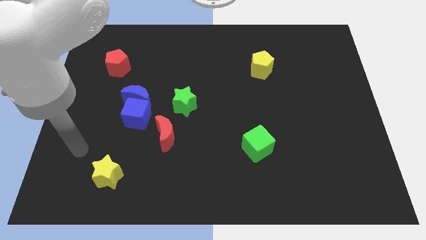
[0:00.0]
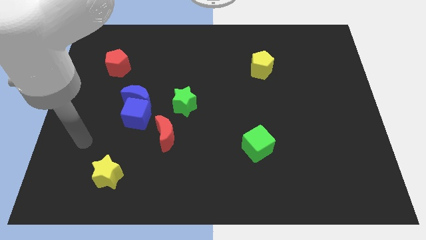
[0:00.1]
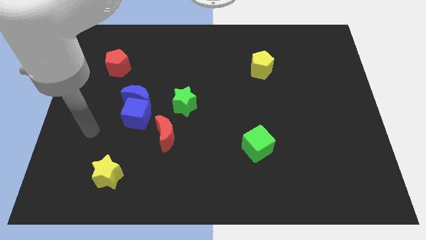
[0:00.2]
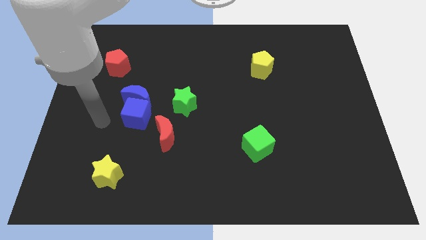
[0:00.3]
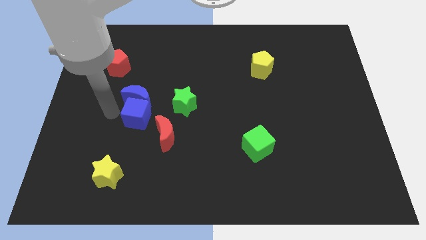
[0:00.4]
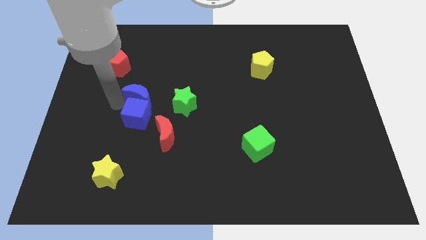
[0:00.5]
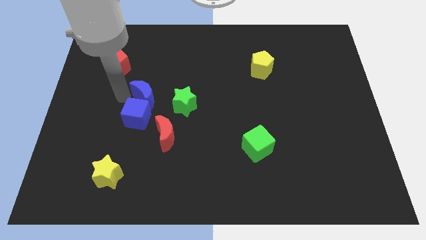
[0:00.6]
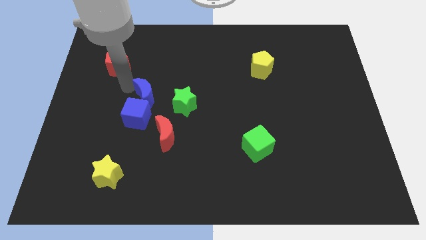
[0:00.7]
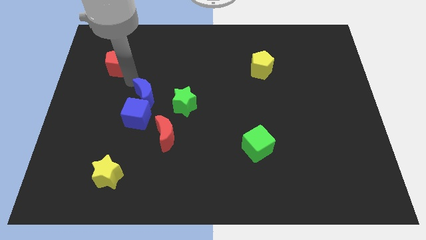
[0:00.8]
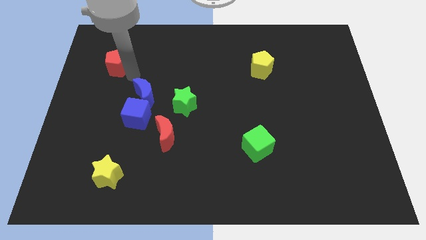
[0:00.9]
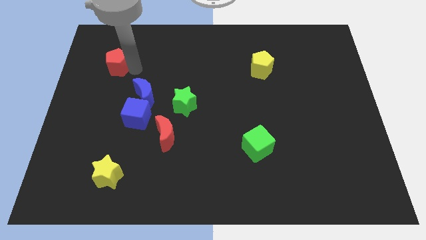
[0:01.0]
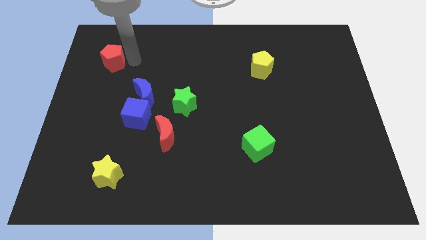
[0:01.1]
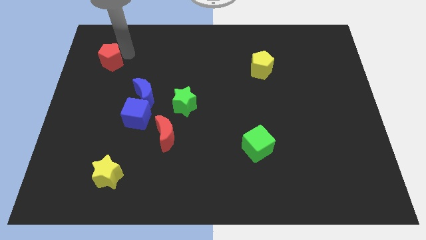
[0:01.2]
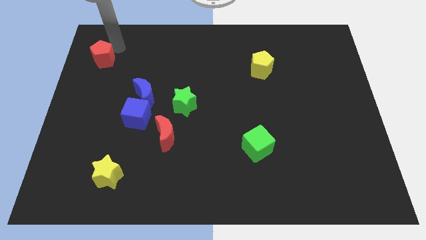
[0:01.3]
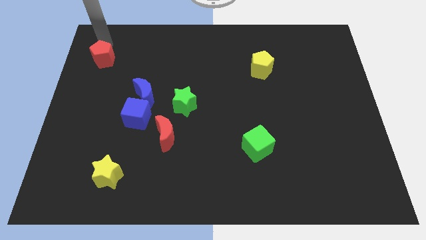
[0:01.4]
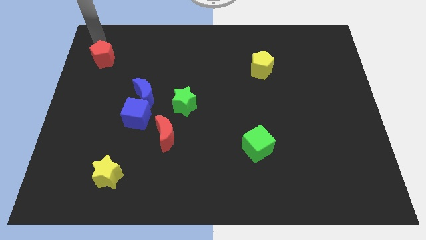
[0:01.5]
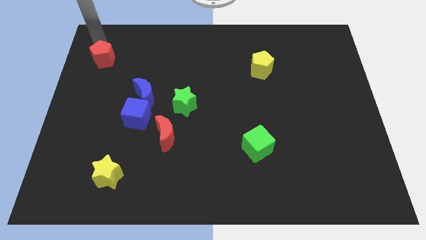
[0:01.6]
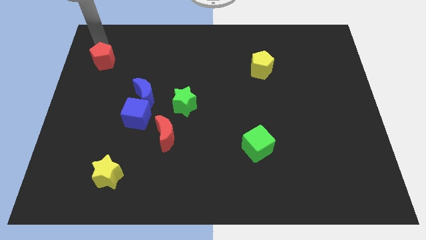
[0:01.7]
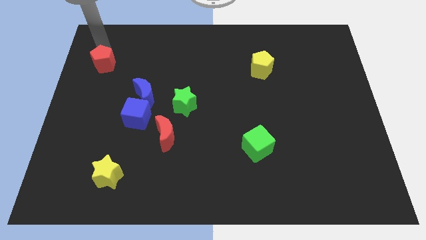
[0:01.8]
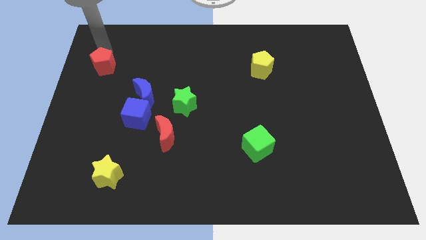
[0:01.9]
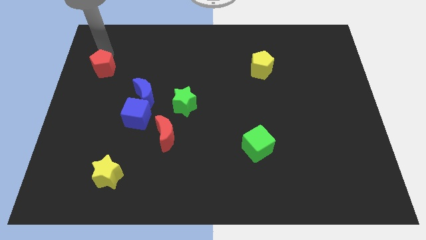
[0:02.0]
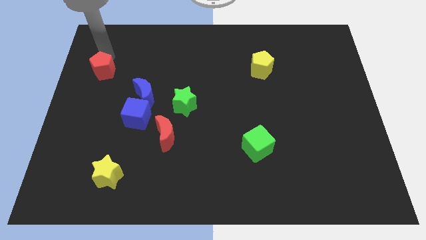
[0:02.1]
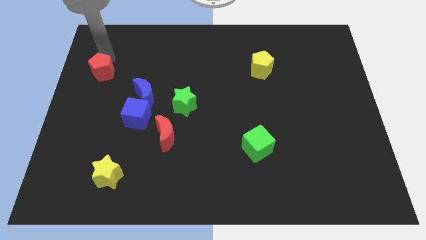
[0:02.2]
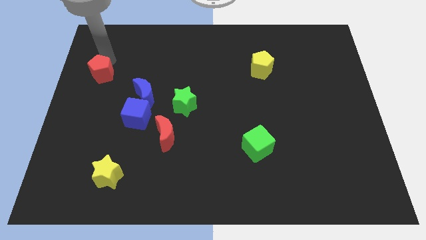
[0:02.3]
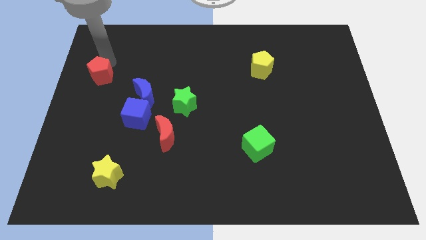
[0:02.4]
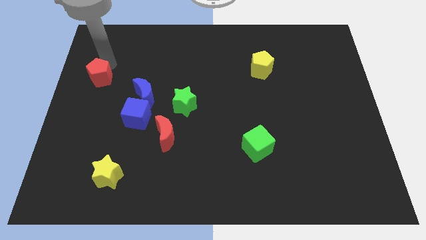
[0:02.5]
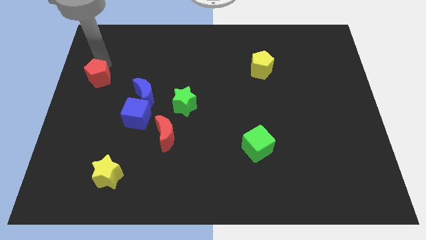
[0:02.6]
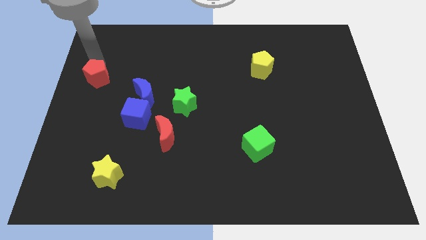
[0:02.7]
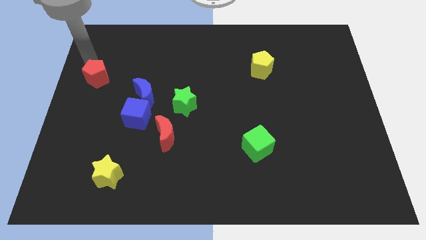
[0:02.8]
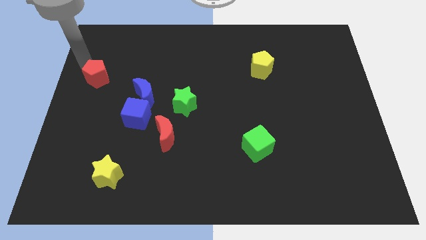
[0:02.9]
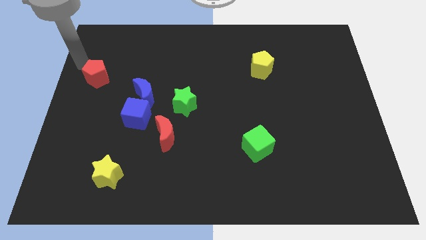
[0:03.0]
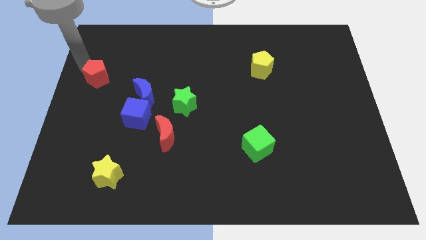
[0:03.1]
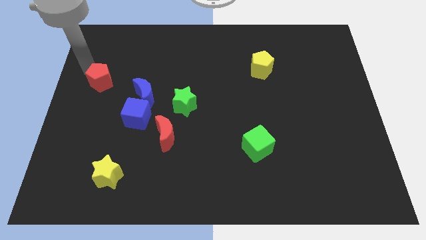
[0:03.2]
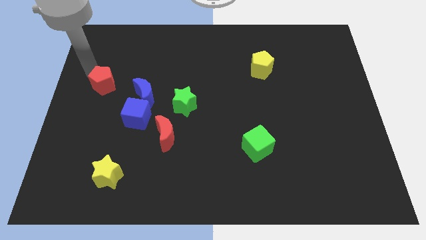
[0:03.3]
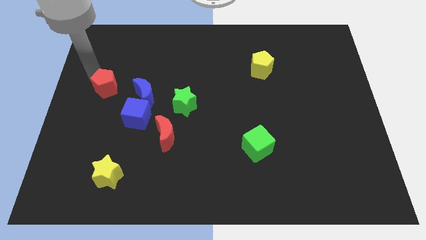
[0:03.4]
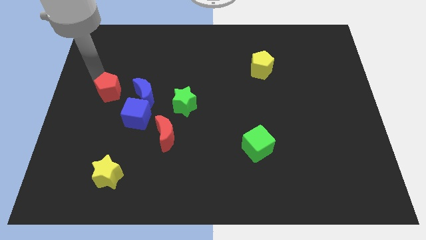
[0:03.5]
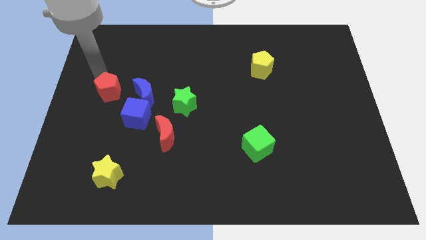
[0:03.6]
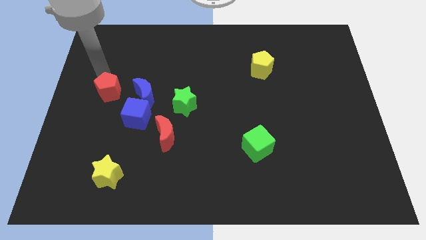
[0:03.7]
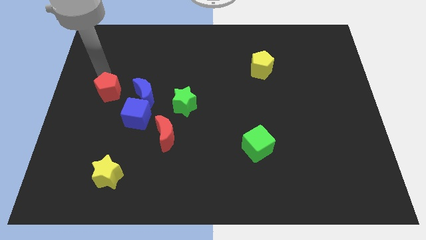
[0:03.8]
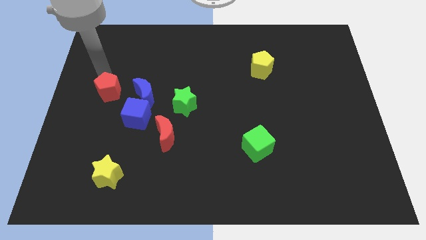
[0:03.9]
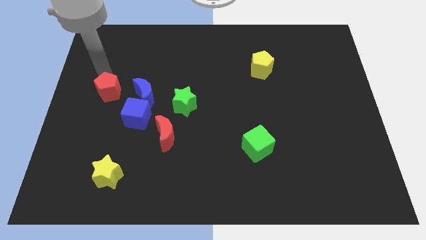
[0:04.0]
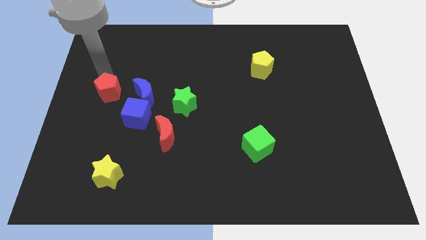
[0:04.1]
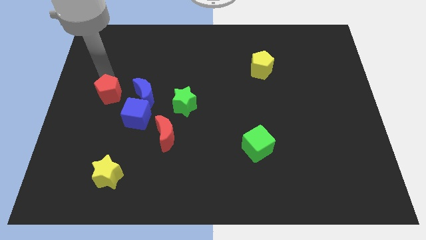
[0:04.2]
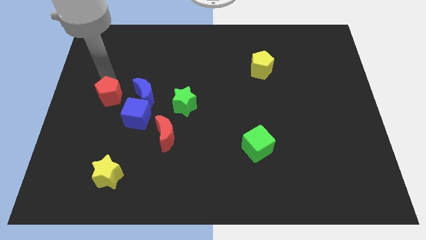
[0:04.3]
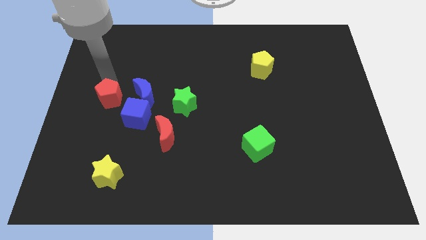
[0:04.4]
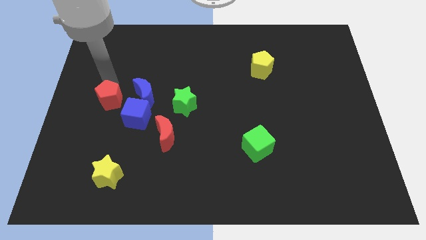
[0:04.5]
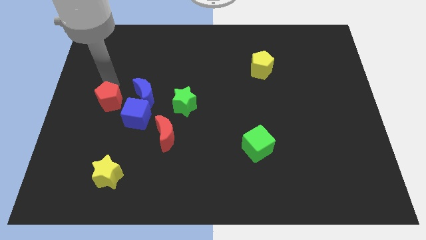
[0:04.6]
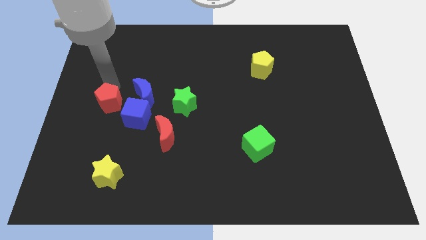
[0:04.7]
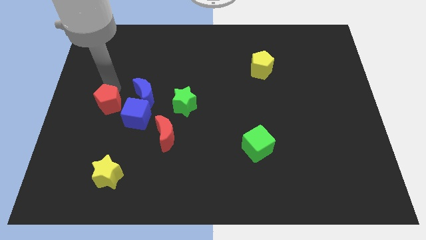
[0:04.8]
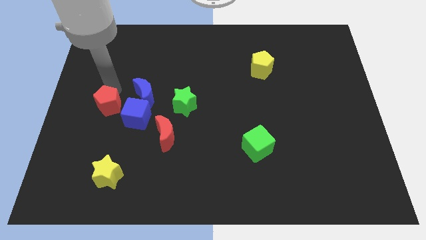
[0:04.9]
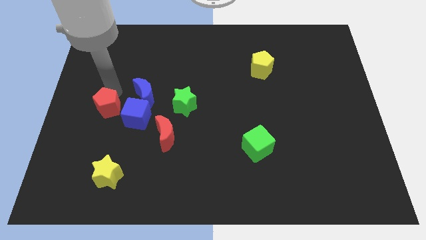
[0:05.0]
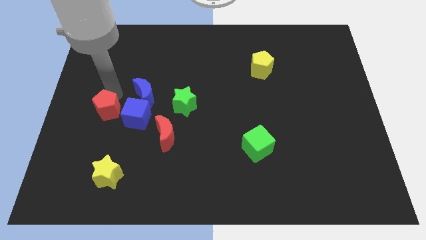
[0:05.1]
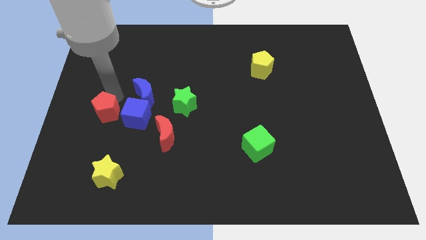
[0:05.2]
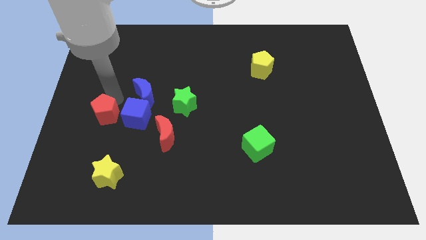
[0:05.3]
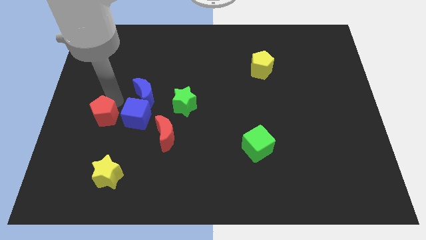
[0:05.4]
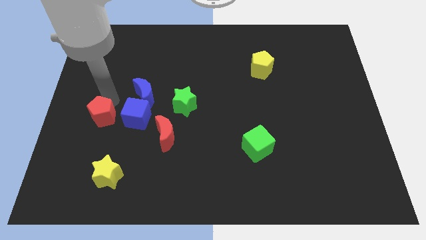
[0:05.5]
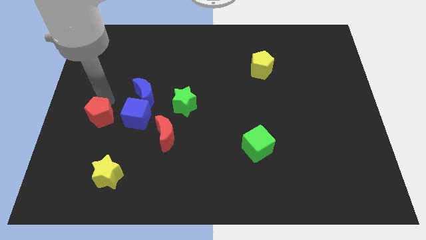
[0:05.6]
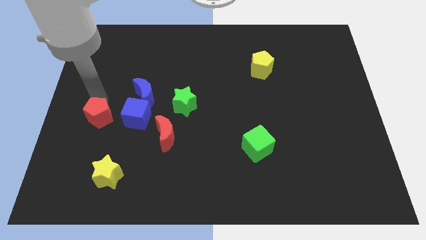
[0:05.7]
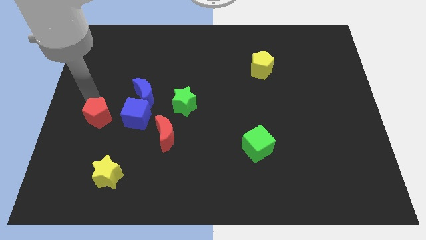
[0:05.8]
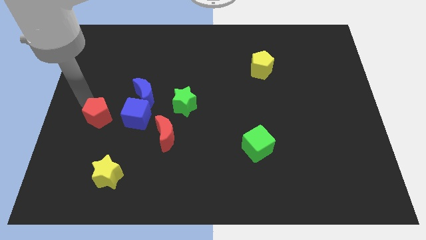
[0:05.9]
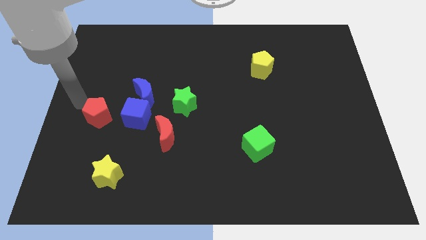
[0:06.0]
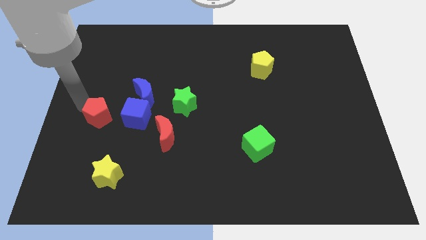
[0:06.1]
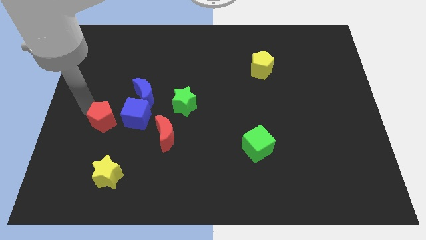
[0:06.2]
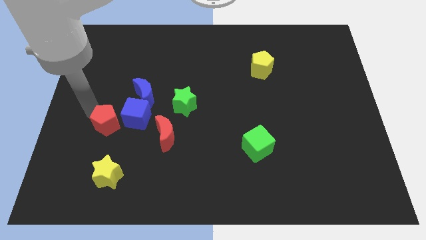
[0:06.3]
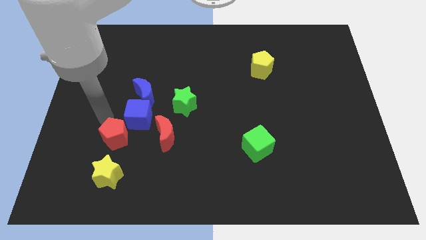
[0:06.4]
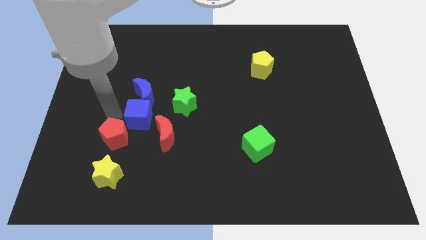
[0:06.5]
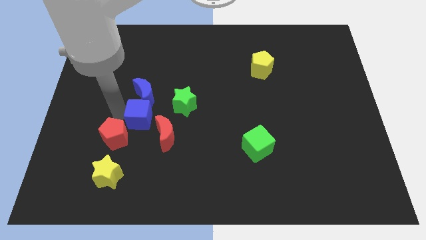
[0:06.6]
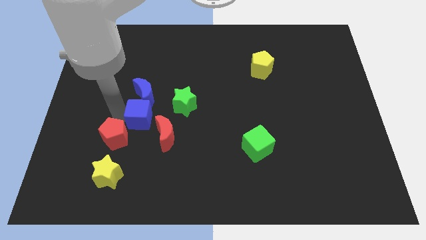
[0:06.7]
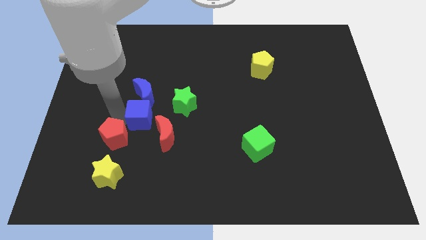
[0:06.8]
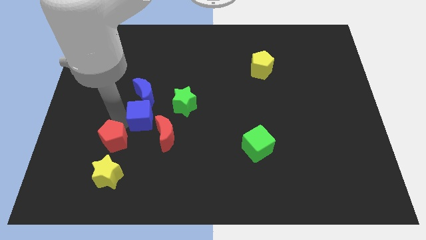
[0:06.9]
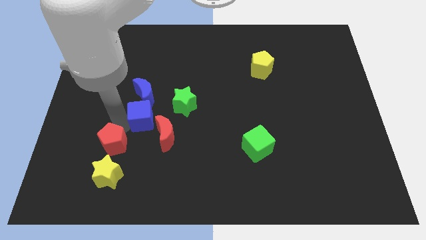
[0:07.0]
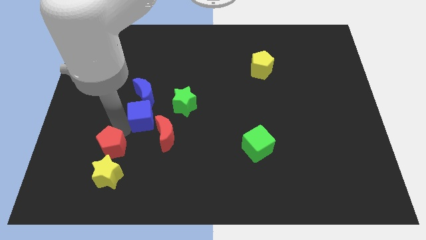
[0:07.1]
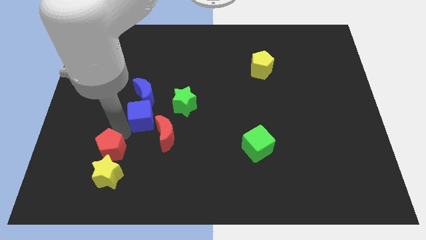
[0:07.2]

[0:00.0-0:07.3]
slide the red pentagon next to the yellow star
